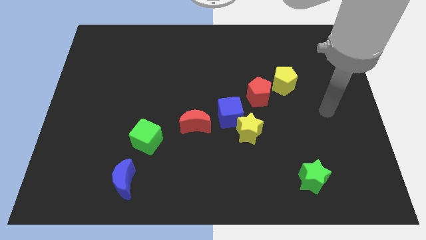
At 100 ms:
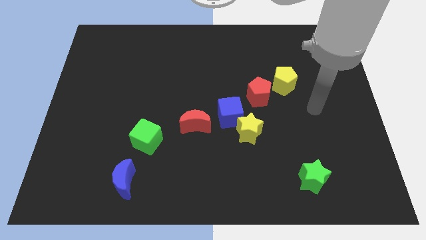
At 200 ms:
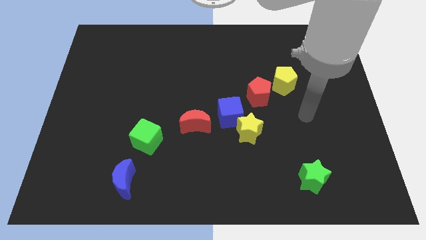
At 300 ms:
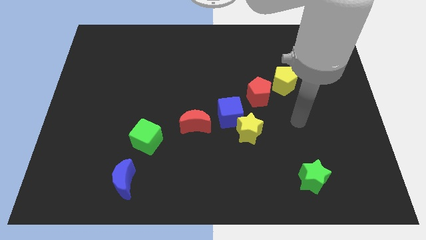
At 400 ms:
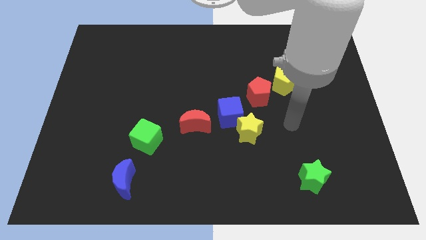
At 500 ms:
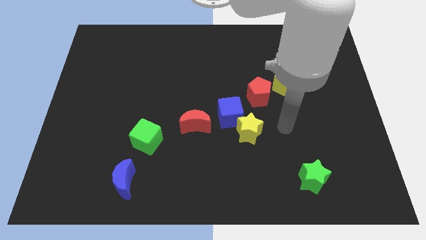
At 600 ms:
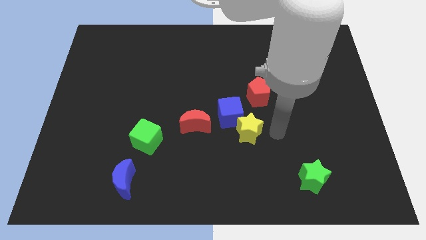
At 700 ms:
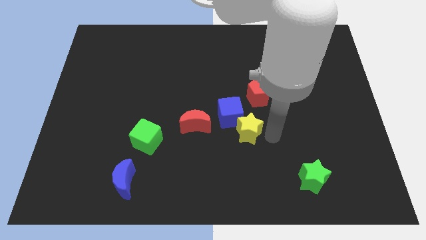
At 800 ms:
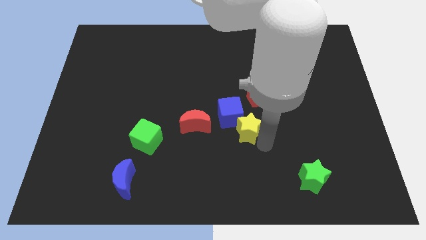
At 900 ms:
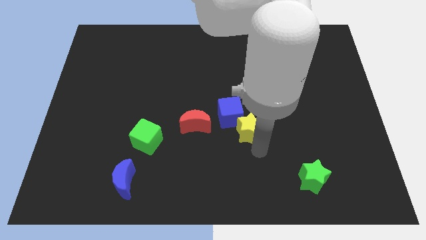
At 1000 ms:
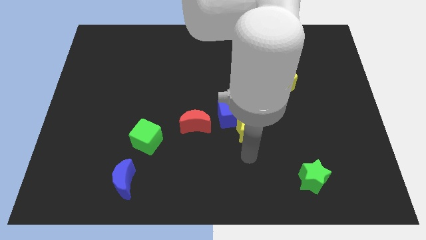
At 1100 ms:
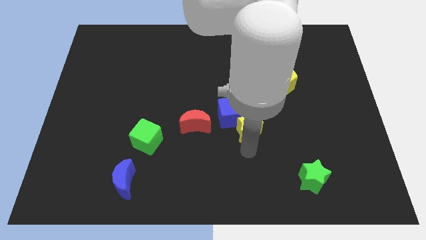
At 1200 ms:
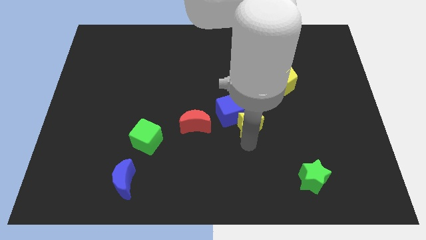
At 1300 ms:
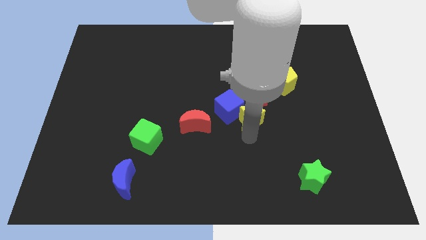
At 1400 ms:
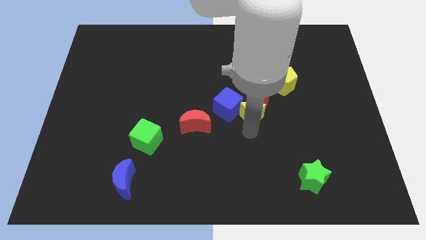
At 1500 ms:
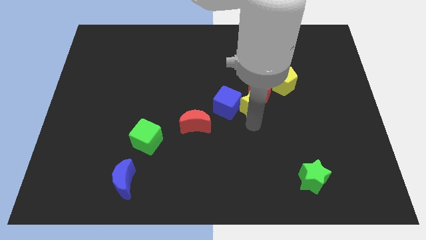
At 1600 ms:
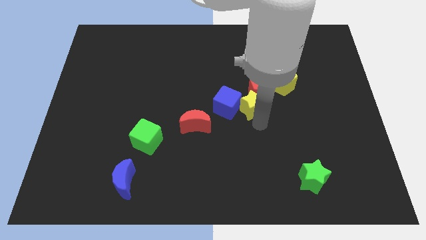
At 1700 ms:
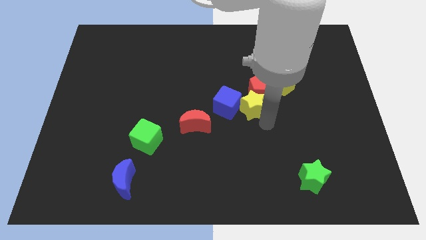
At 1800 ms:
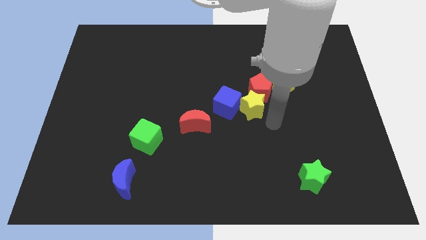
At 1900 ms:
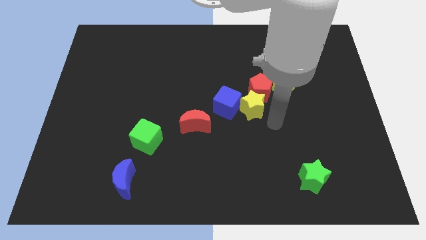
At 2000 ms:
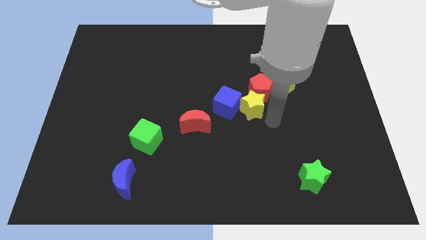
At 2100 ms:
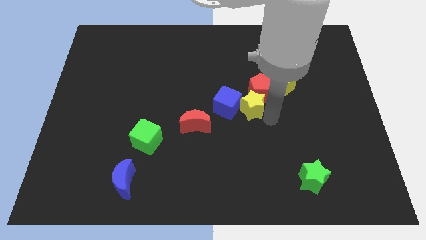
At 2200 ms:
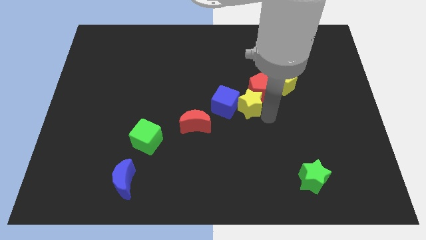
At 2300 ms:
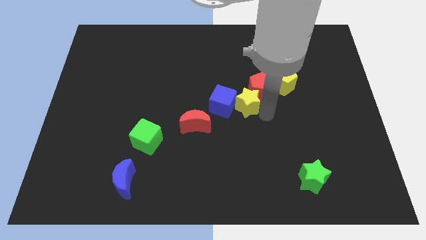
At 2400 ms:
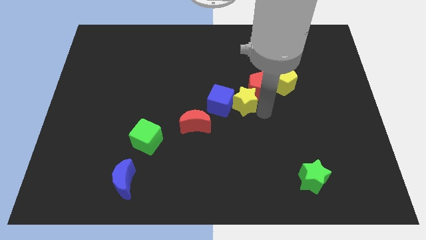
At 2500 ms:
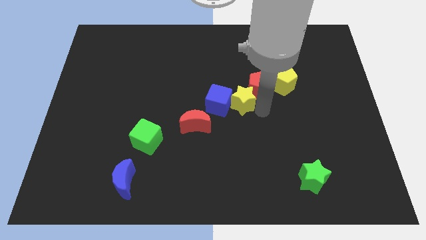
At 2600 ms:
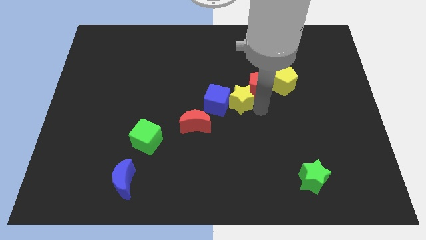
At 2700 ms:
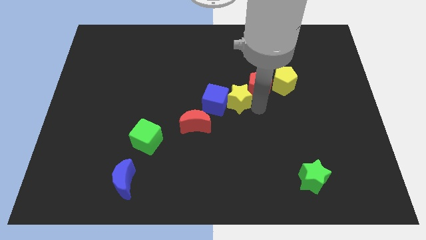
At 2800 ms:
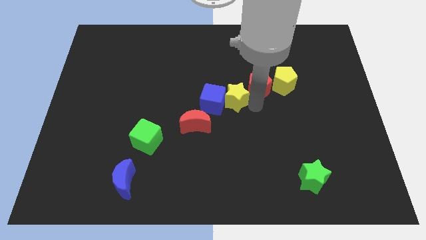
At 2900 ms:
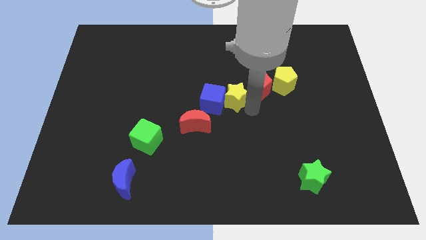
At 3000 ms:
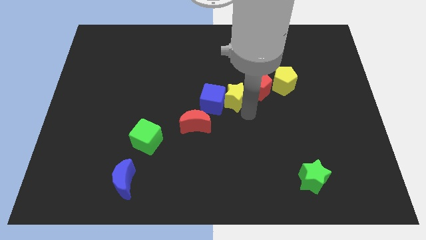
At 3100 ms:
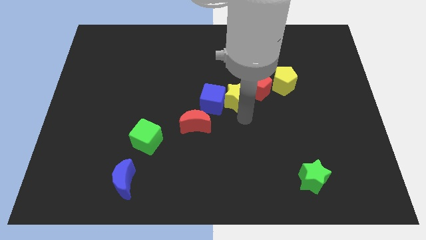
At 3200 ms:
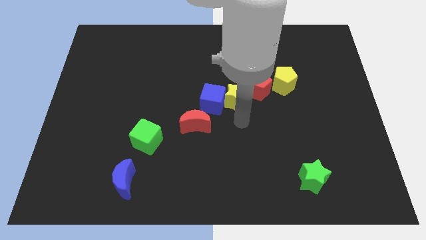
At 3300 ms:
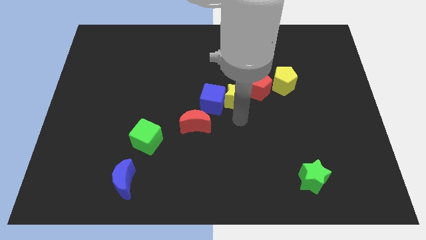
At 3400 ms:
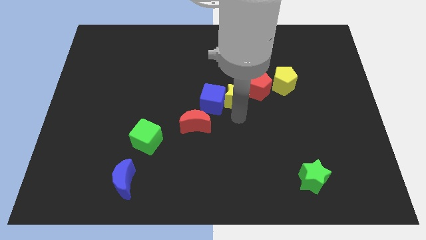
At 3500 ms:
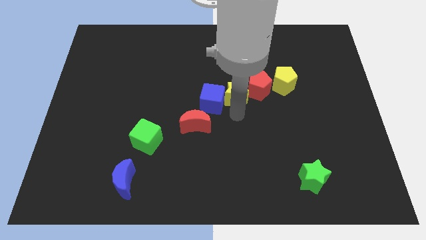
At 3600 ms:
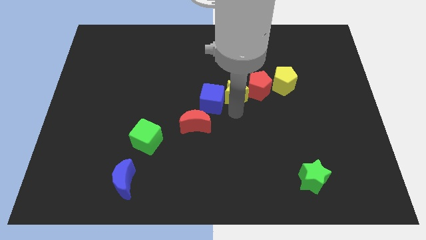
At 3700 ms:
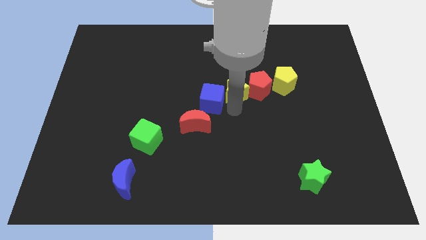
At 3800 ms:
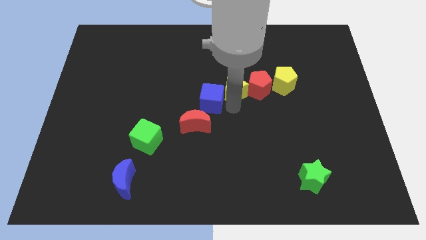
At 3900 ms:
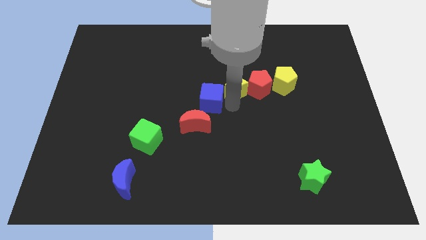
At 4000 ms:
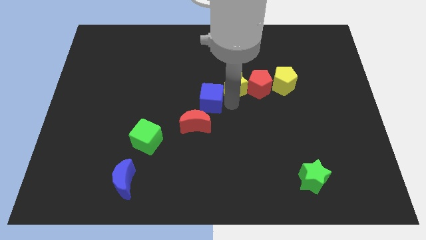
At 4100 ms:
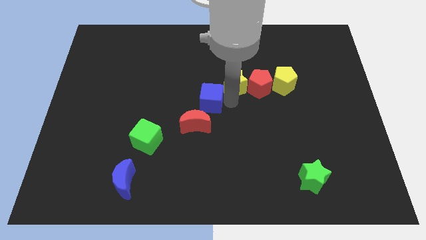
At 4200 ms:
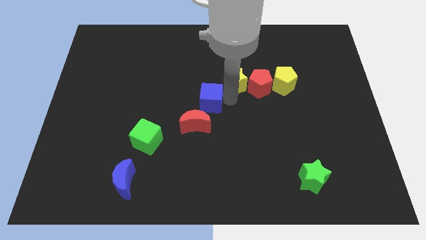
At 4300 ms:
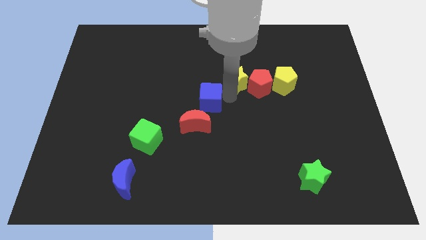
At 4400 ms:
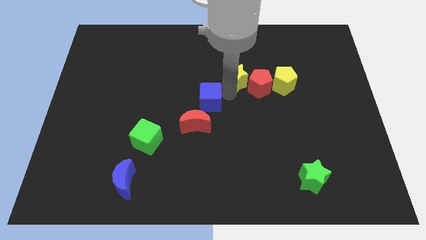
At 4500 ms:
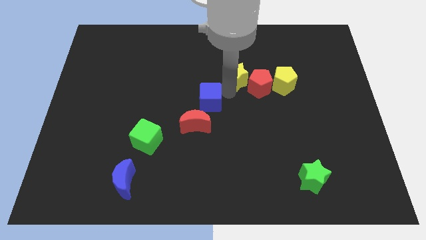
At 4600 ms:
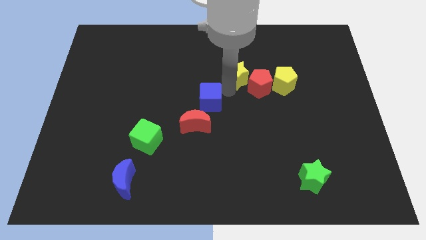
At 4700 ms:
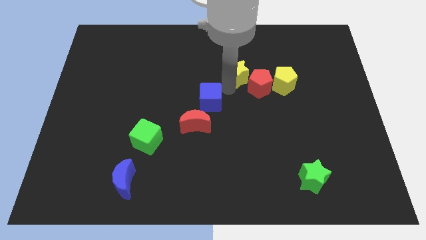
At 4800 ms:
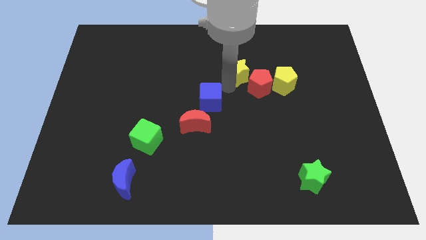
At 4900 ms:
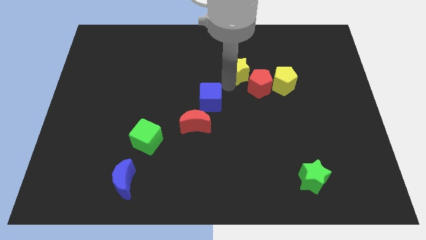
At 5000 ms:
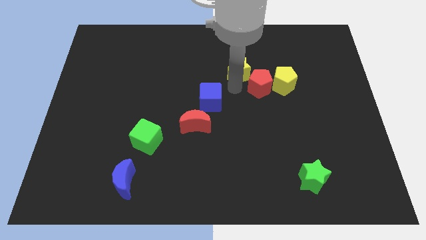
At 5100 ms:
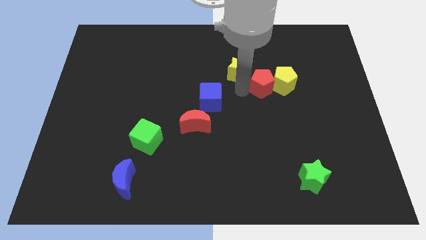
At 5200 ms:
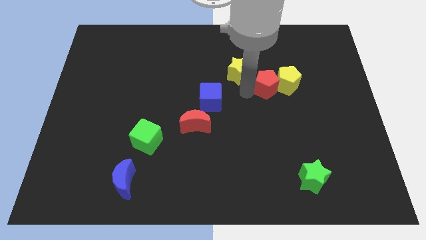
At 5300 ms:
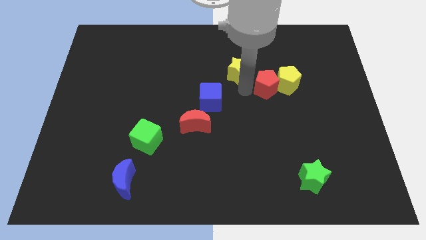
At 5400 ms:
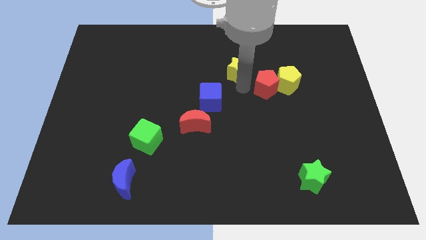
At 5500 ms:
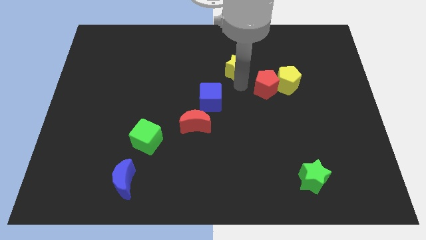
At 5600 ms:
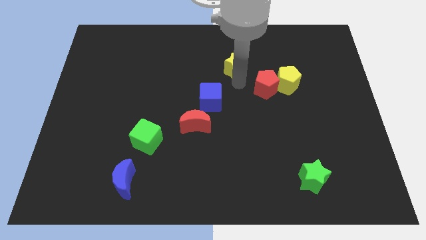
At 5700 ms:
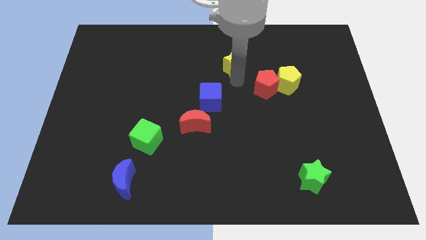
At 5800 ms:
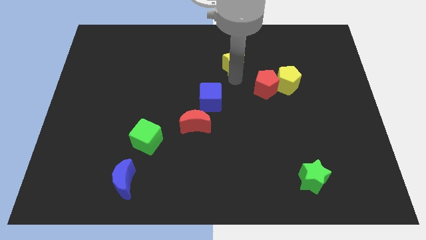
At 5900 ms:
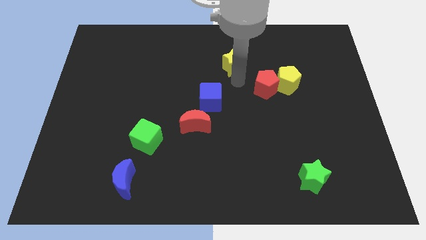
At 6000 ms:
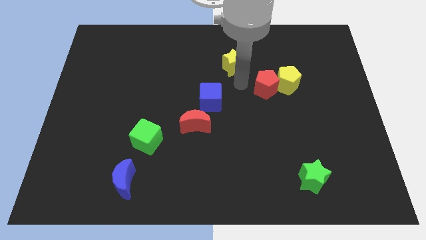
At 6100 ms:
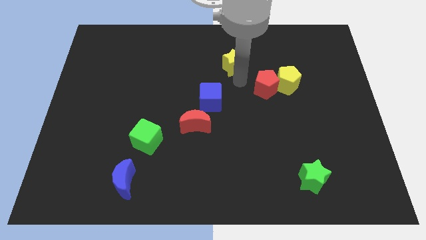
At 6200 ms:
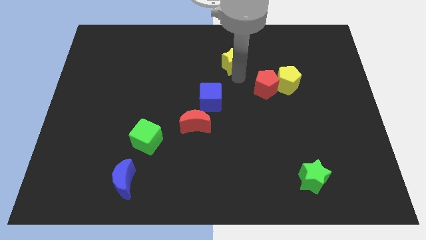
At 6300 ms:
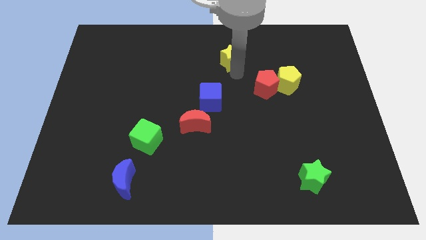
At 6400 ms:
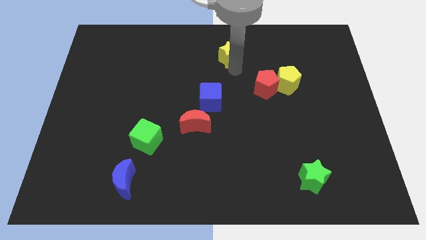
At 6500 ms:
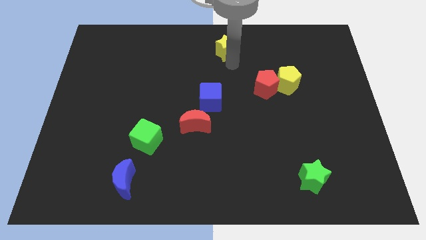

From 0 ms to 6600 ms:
push the yellow star to the top side

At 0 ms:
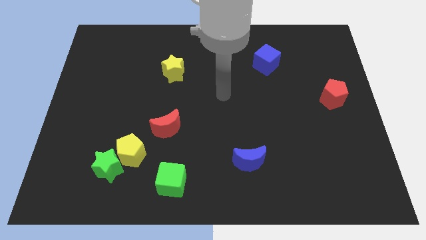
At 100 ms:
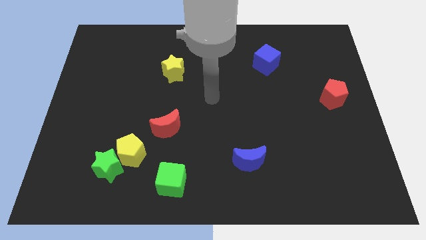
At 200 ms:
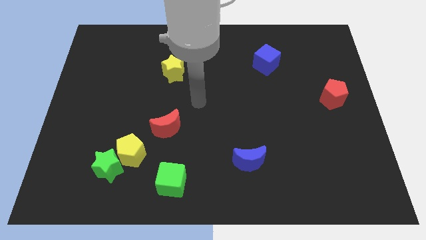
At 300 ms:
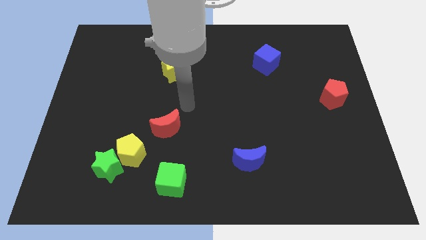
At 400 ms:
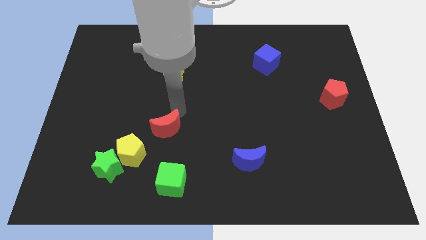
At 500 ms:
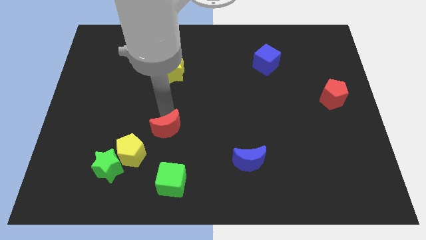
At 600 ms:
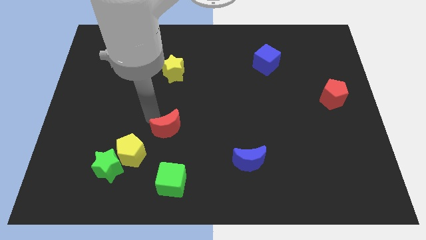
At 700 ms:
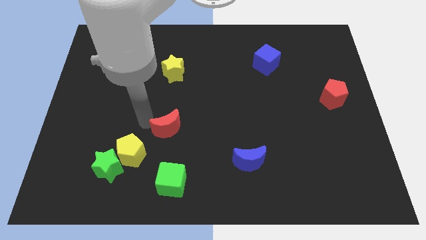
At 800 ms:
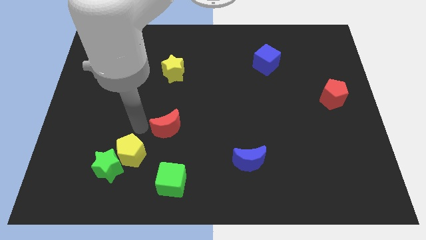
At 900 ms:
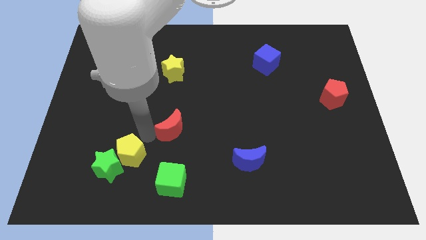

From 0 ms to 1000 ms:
slide the red moon to the center of the board
